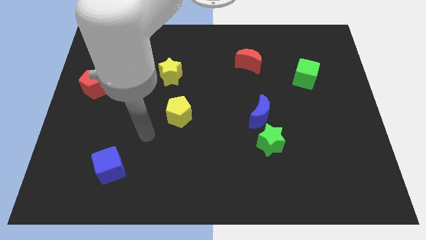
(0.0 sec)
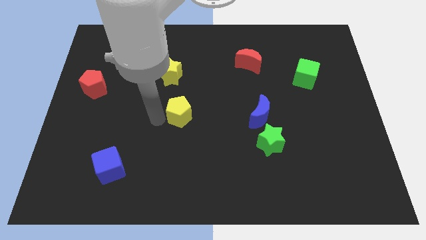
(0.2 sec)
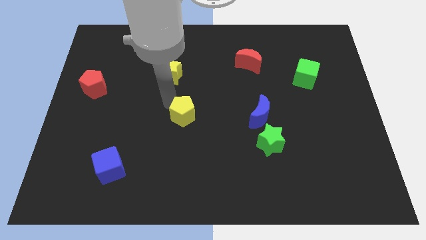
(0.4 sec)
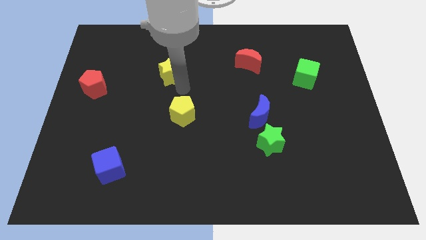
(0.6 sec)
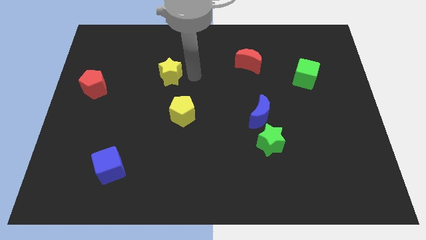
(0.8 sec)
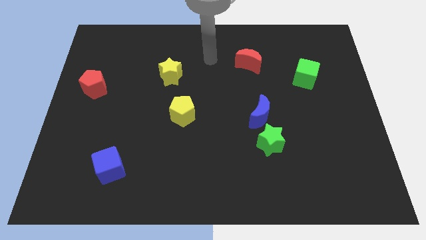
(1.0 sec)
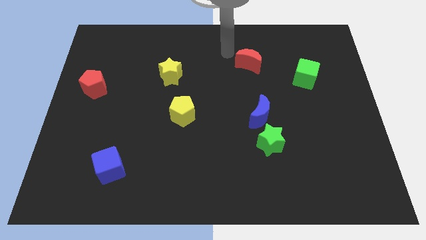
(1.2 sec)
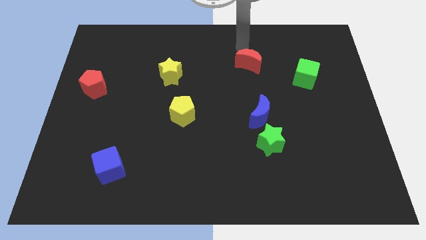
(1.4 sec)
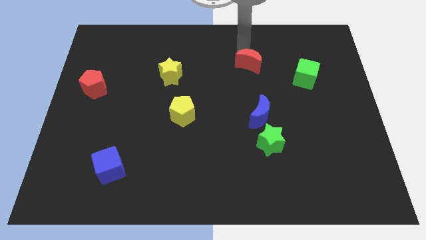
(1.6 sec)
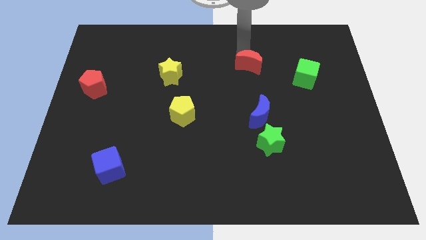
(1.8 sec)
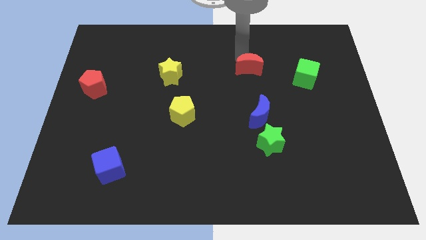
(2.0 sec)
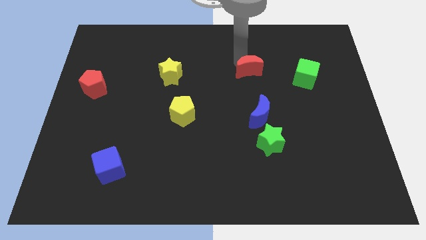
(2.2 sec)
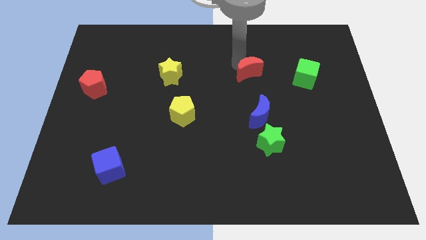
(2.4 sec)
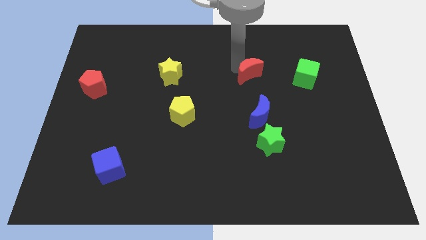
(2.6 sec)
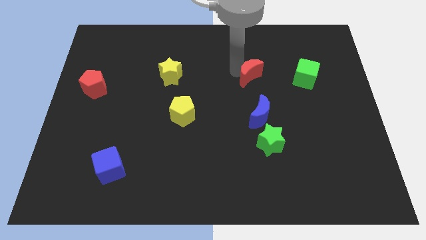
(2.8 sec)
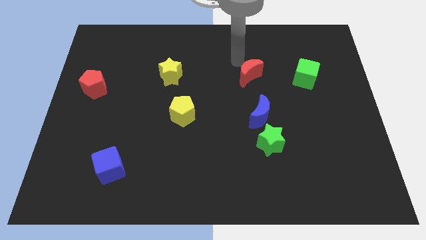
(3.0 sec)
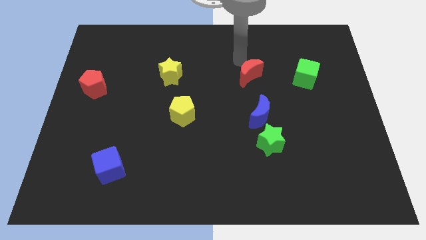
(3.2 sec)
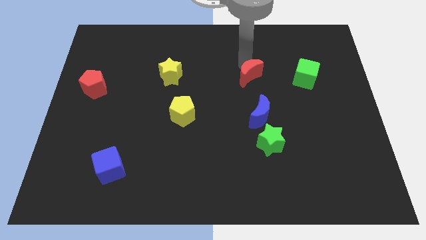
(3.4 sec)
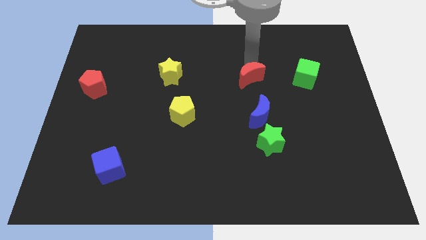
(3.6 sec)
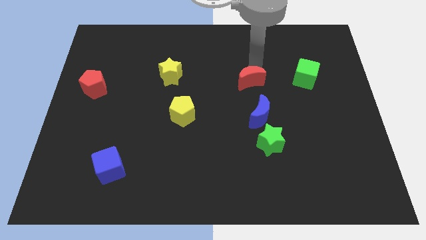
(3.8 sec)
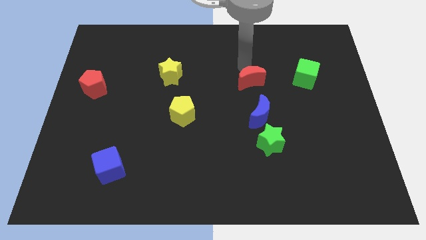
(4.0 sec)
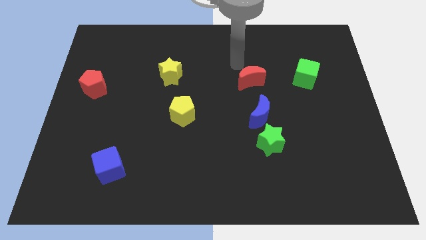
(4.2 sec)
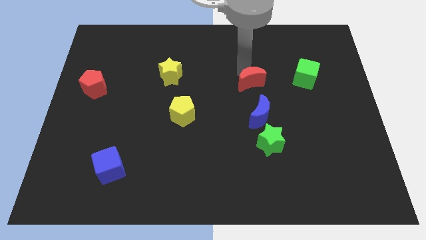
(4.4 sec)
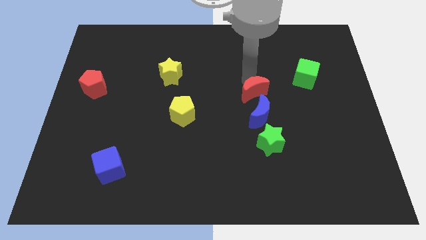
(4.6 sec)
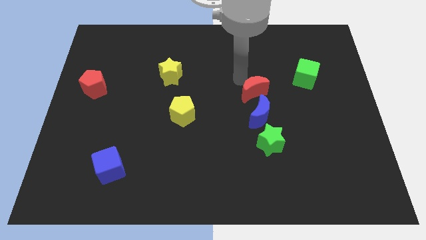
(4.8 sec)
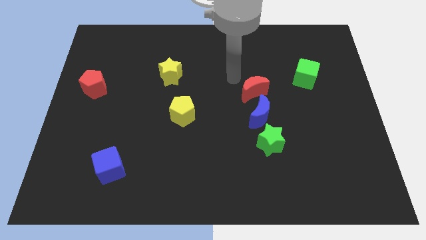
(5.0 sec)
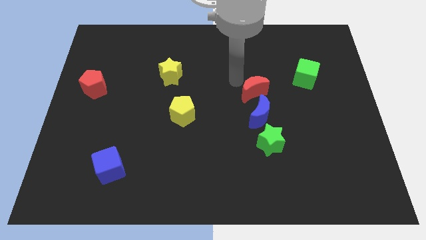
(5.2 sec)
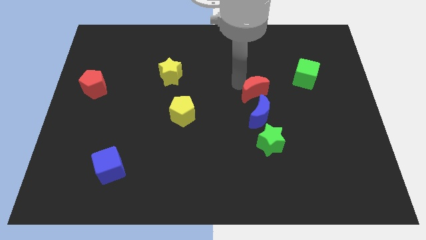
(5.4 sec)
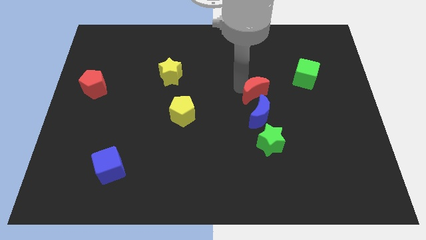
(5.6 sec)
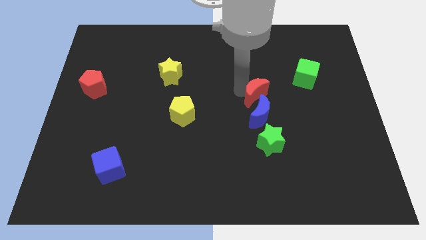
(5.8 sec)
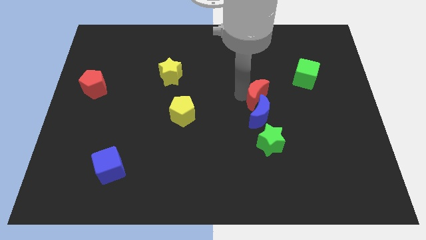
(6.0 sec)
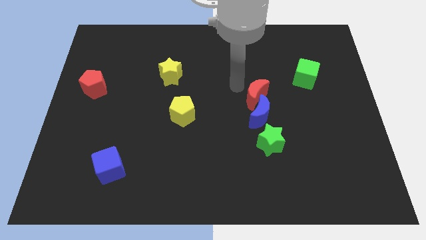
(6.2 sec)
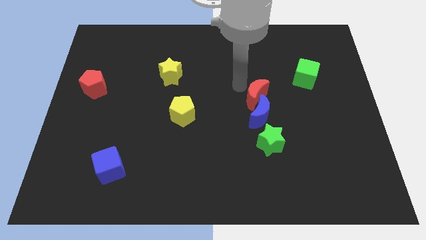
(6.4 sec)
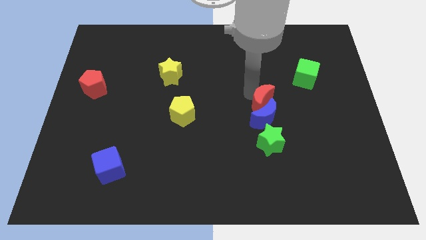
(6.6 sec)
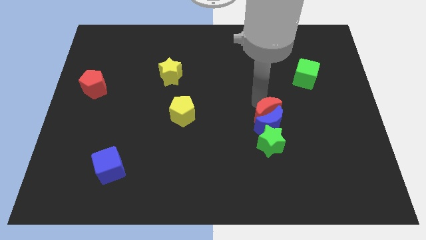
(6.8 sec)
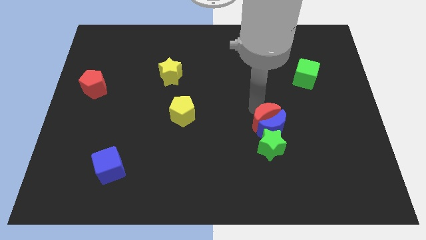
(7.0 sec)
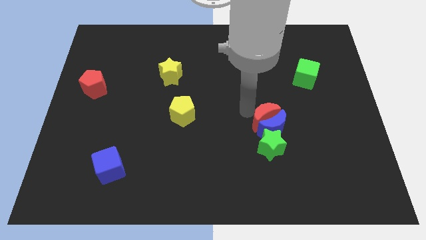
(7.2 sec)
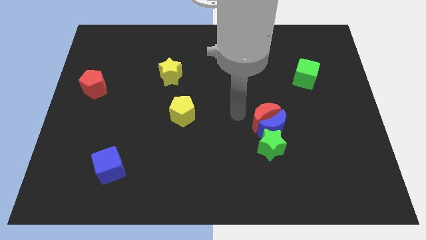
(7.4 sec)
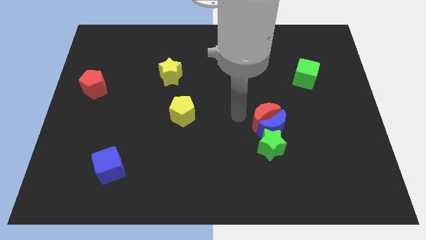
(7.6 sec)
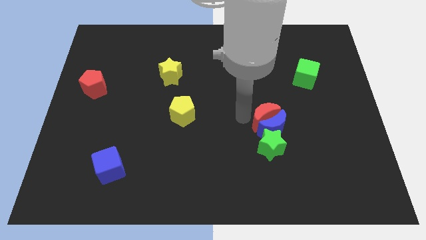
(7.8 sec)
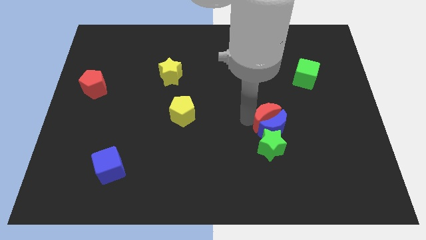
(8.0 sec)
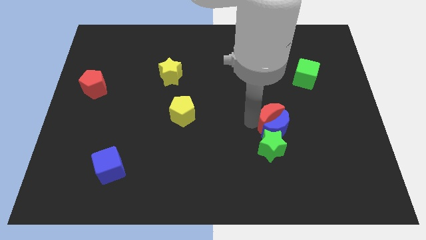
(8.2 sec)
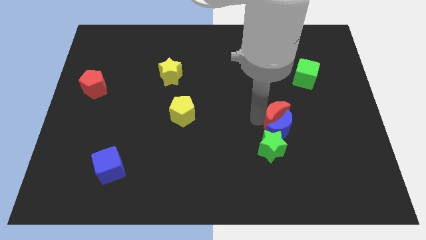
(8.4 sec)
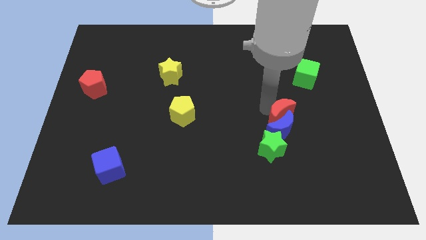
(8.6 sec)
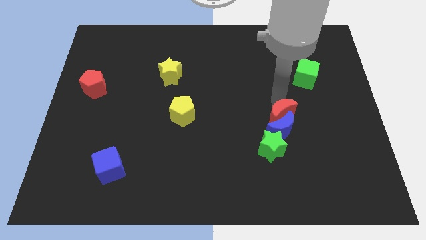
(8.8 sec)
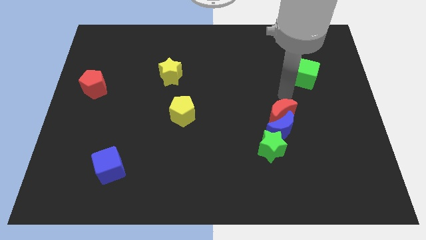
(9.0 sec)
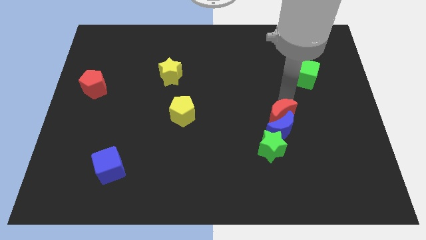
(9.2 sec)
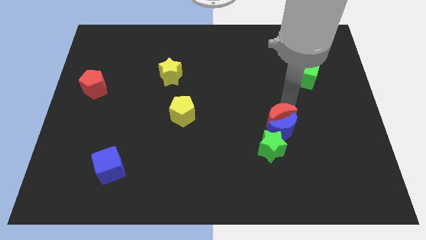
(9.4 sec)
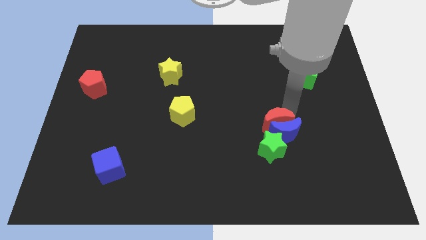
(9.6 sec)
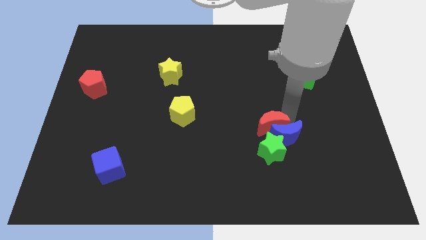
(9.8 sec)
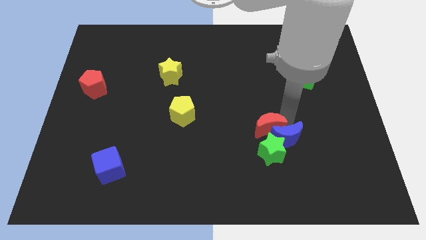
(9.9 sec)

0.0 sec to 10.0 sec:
move the red moon next to the green star

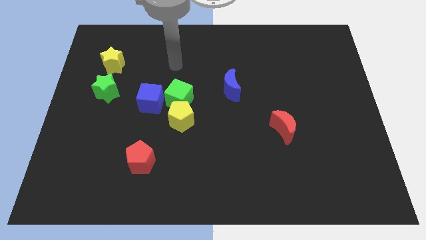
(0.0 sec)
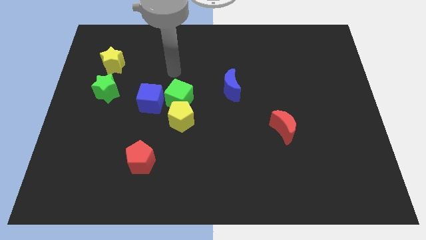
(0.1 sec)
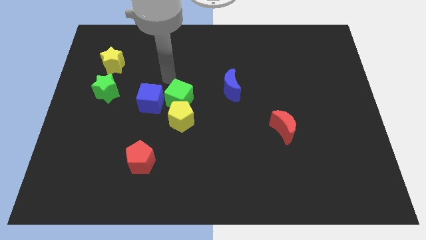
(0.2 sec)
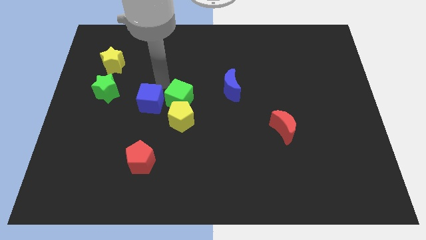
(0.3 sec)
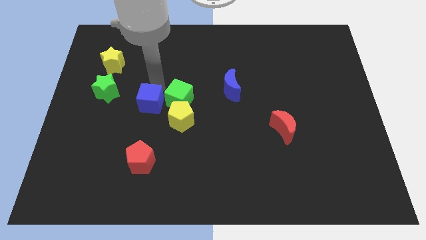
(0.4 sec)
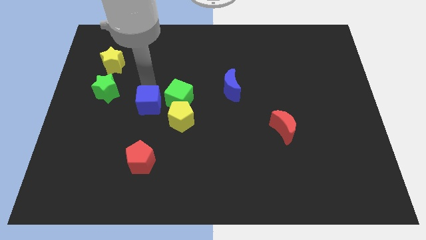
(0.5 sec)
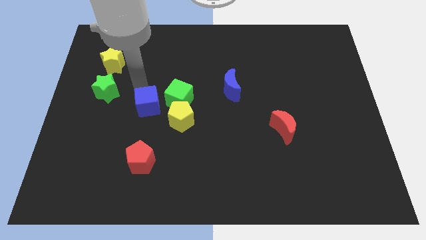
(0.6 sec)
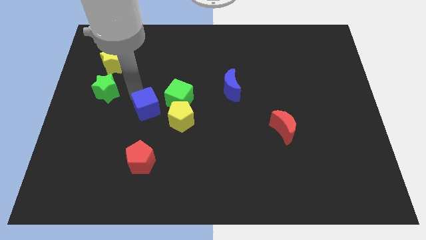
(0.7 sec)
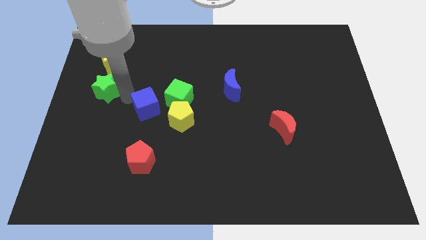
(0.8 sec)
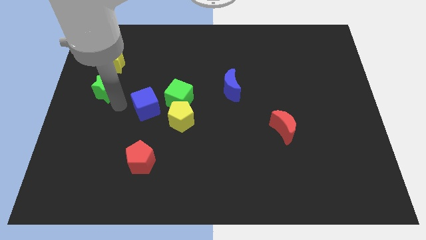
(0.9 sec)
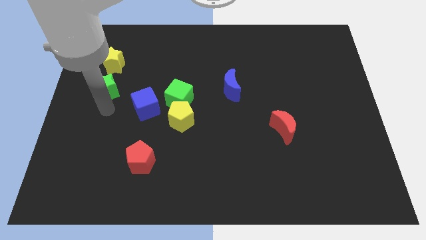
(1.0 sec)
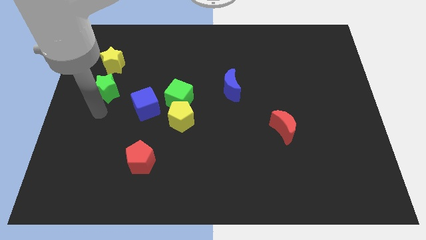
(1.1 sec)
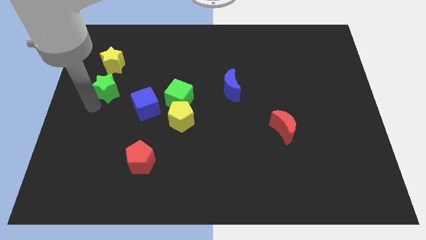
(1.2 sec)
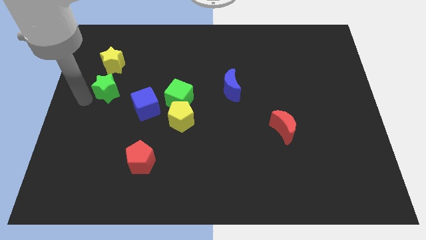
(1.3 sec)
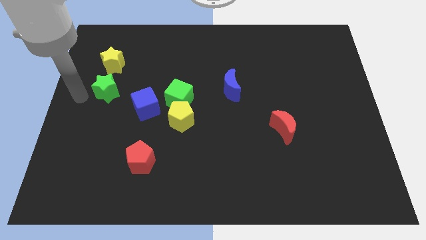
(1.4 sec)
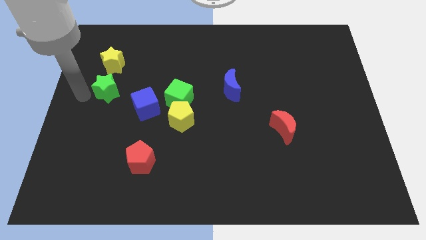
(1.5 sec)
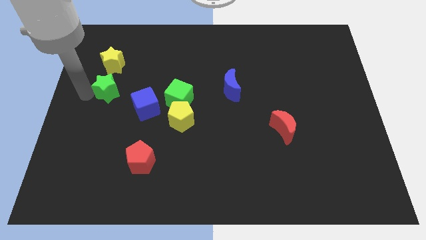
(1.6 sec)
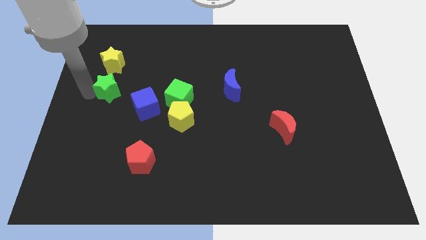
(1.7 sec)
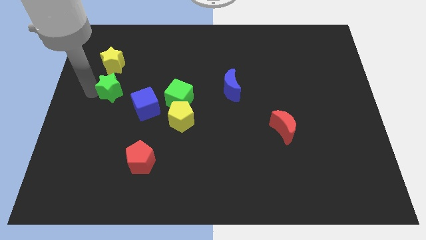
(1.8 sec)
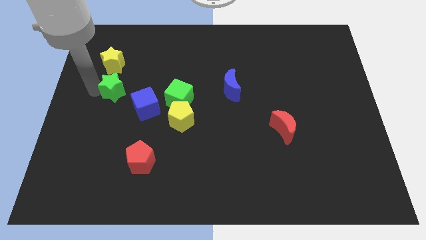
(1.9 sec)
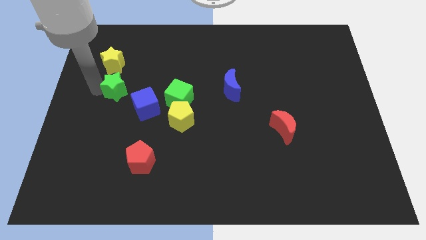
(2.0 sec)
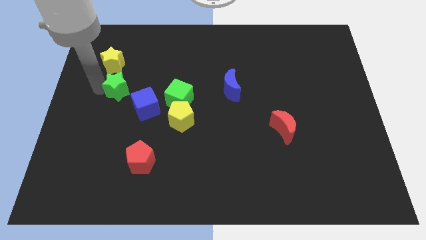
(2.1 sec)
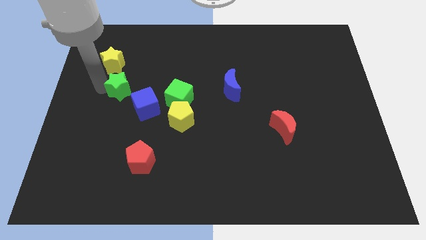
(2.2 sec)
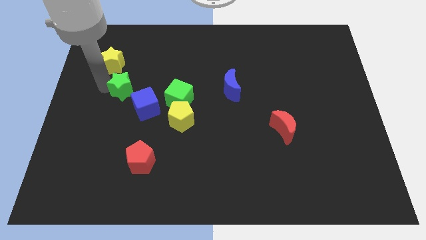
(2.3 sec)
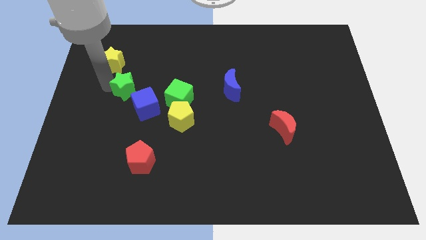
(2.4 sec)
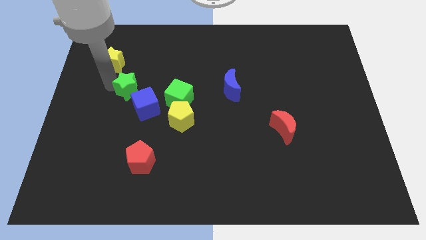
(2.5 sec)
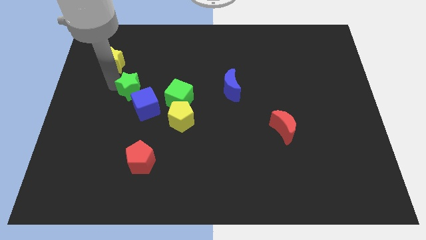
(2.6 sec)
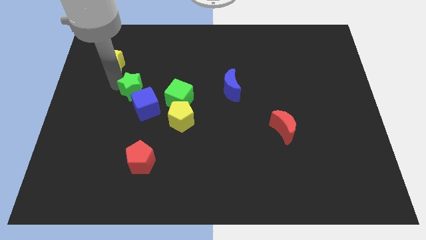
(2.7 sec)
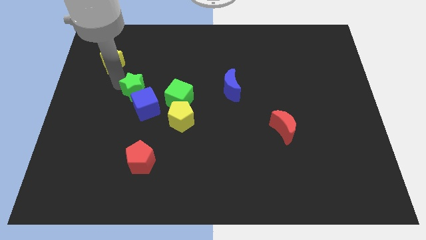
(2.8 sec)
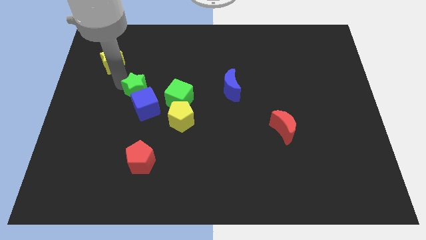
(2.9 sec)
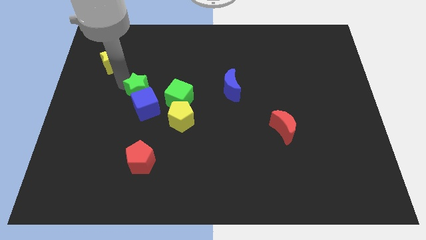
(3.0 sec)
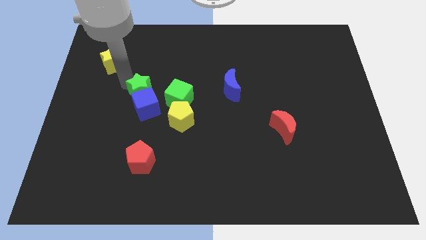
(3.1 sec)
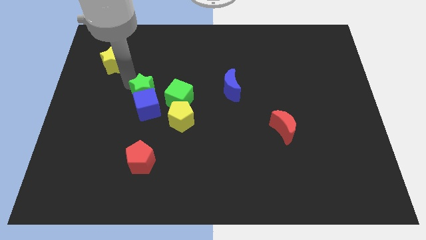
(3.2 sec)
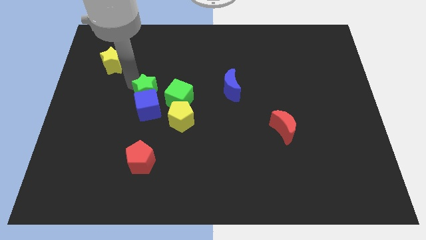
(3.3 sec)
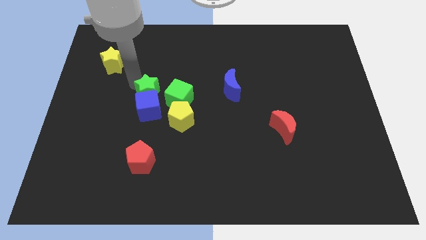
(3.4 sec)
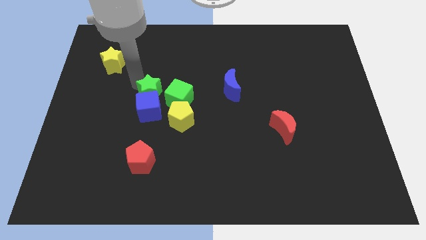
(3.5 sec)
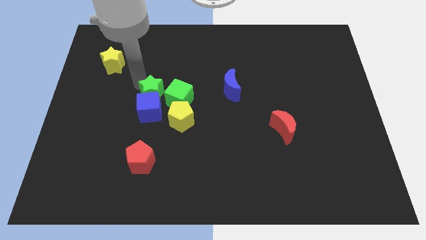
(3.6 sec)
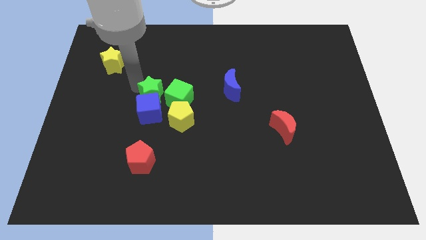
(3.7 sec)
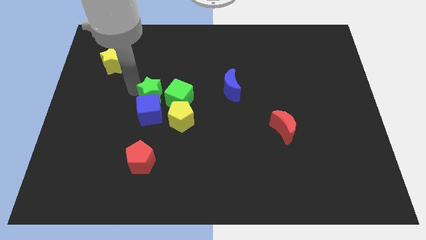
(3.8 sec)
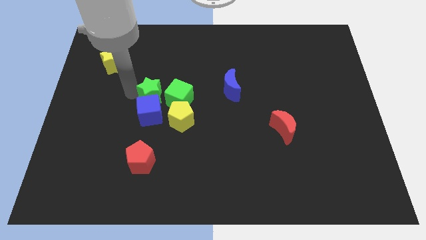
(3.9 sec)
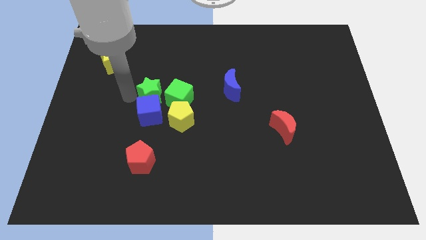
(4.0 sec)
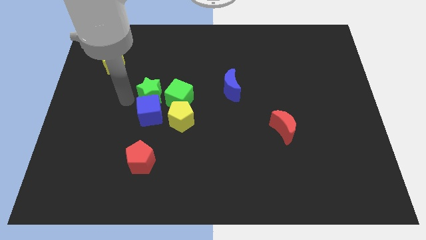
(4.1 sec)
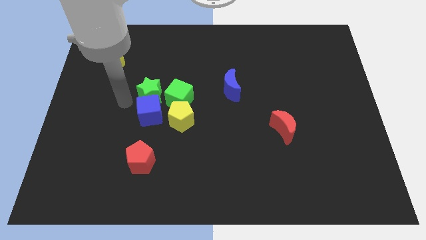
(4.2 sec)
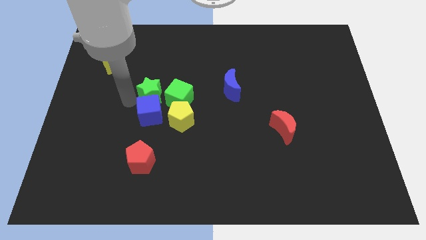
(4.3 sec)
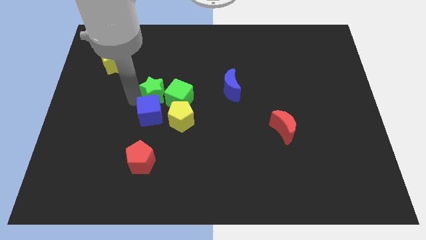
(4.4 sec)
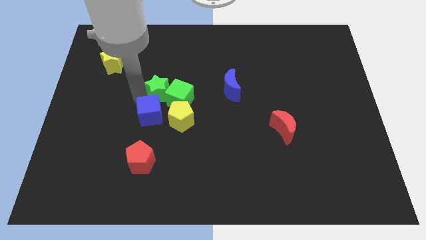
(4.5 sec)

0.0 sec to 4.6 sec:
put the green star to the green cube
